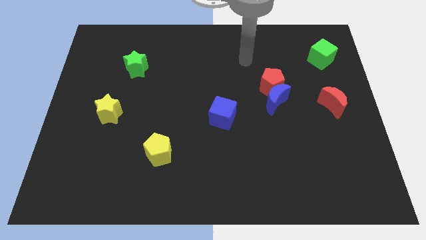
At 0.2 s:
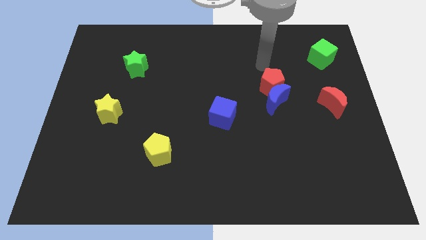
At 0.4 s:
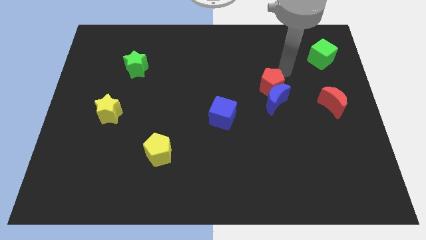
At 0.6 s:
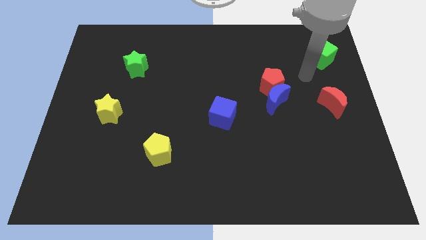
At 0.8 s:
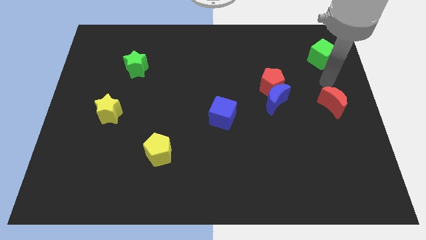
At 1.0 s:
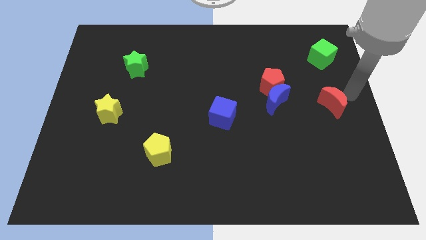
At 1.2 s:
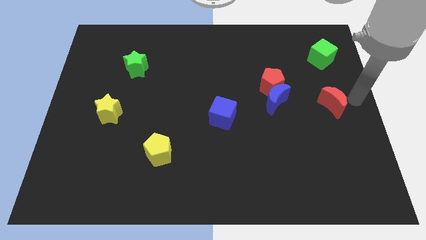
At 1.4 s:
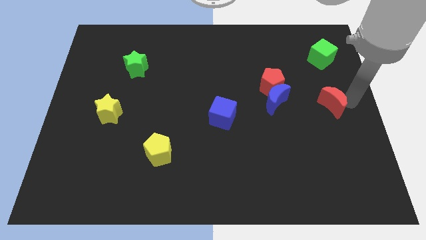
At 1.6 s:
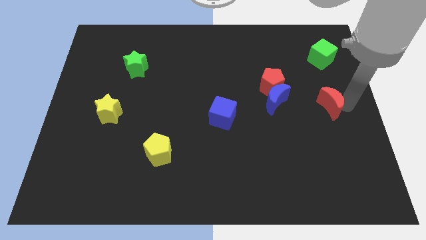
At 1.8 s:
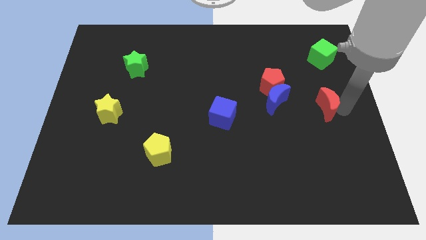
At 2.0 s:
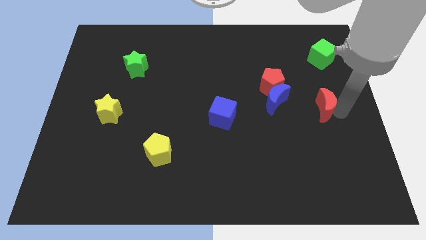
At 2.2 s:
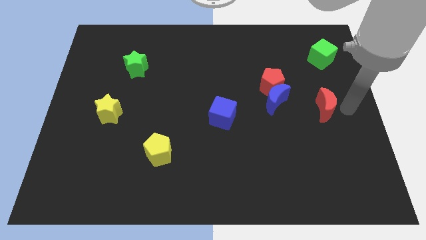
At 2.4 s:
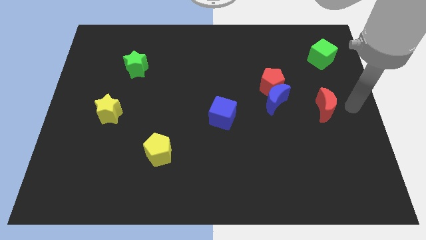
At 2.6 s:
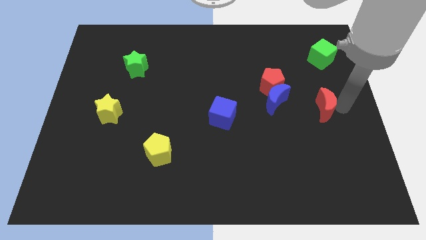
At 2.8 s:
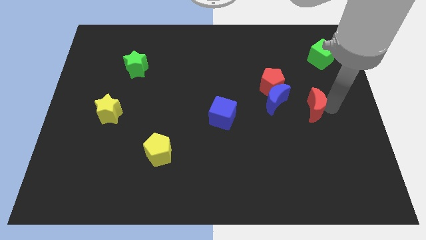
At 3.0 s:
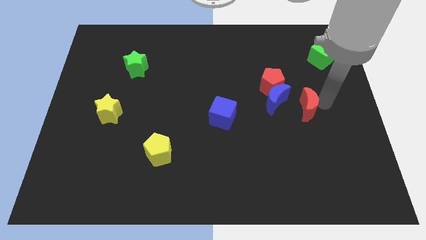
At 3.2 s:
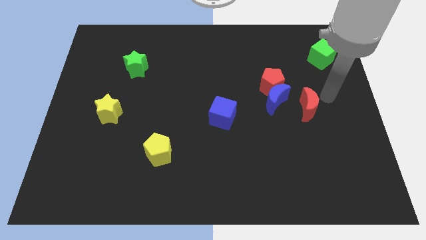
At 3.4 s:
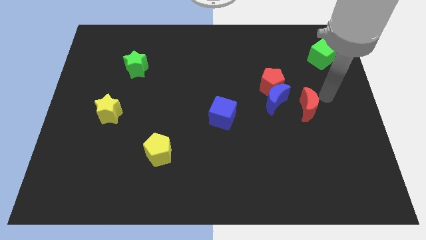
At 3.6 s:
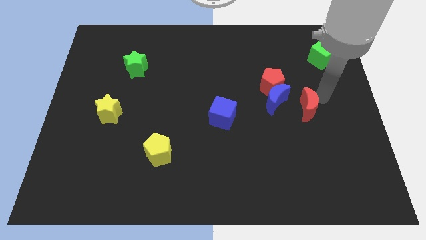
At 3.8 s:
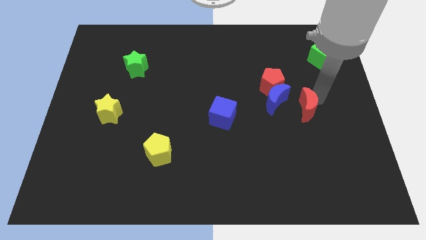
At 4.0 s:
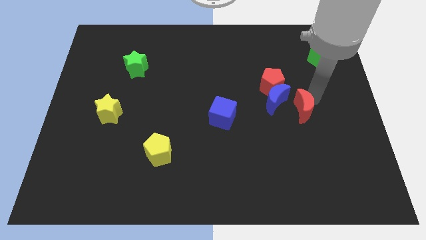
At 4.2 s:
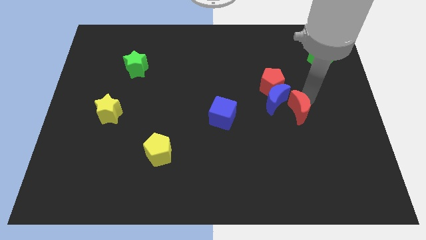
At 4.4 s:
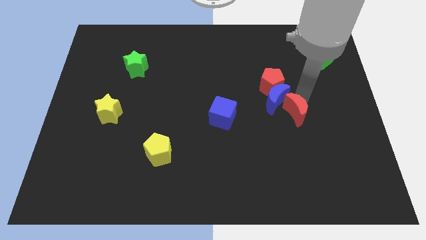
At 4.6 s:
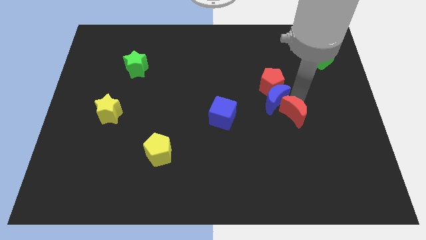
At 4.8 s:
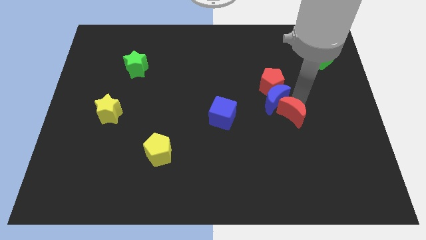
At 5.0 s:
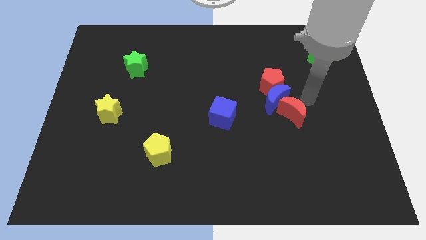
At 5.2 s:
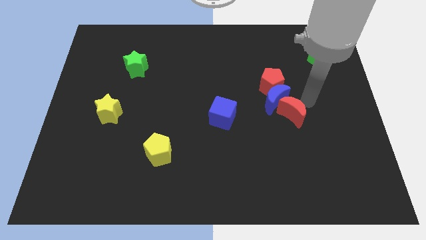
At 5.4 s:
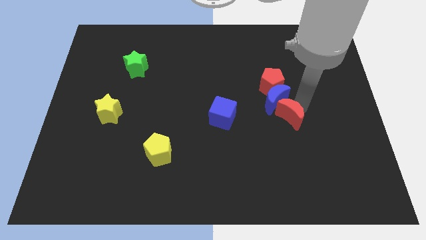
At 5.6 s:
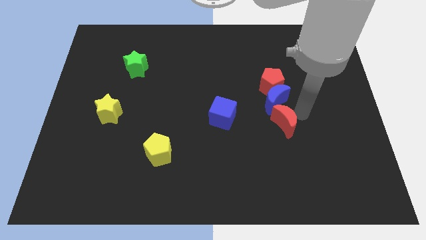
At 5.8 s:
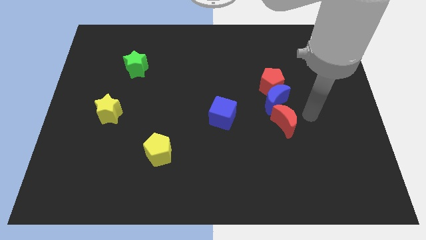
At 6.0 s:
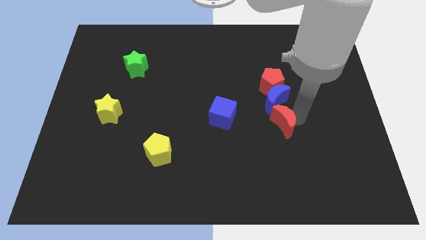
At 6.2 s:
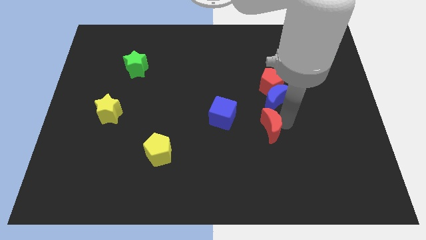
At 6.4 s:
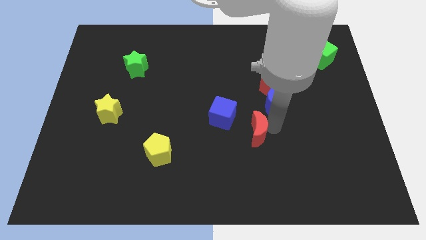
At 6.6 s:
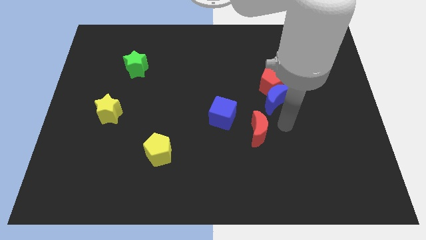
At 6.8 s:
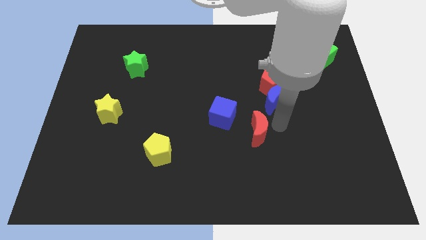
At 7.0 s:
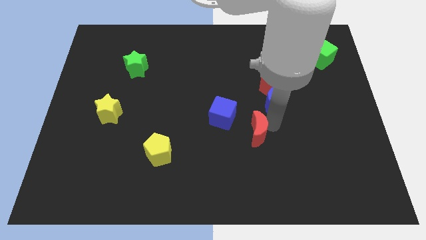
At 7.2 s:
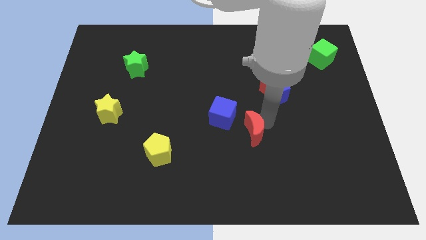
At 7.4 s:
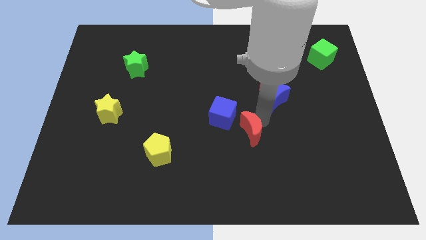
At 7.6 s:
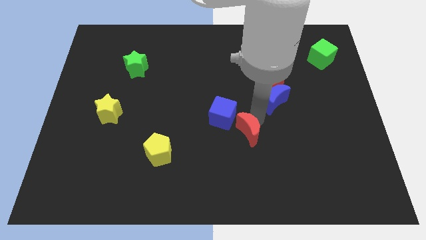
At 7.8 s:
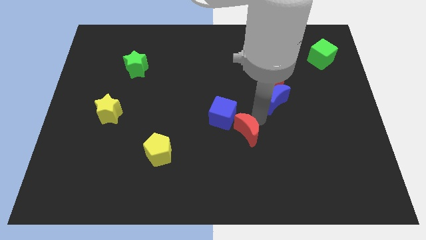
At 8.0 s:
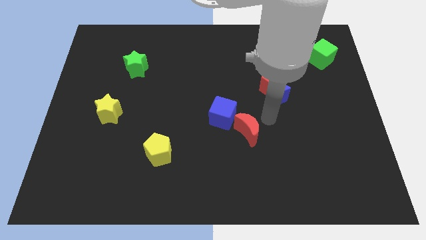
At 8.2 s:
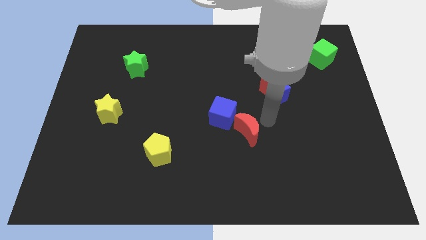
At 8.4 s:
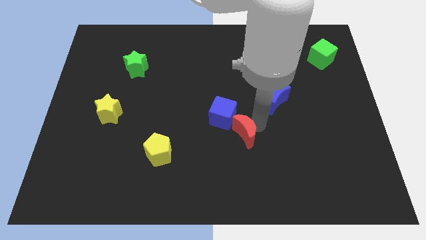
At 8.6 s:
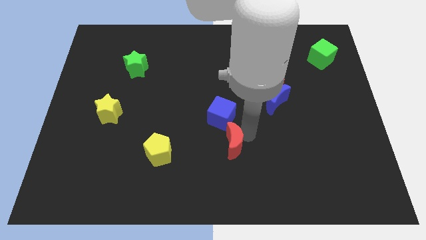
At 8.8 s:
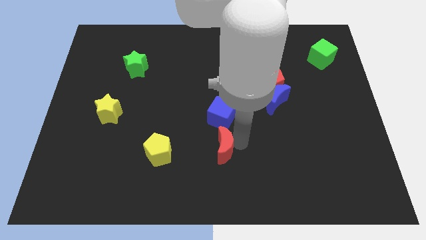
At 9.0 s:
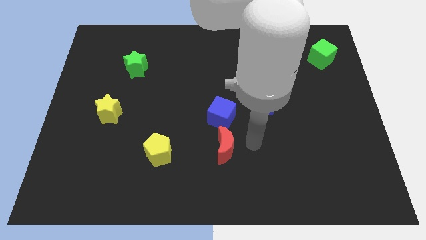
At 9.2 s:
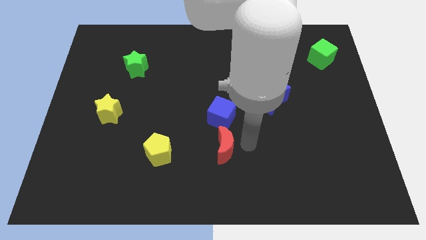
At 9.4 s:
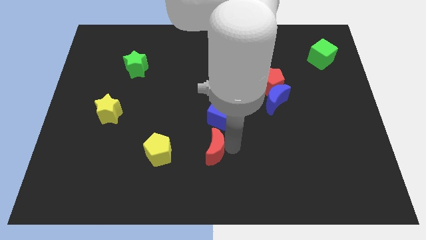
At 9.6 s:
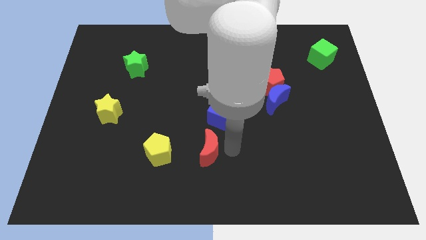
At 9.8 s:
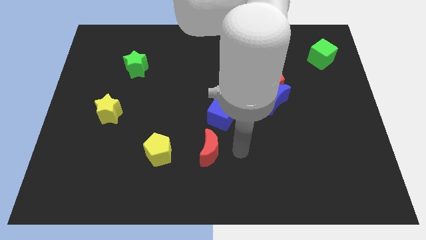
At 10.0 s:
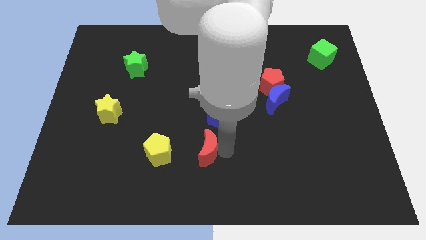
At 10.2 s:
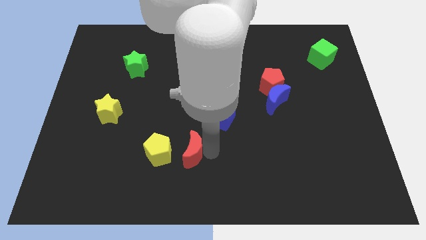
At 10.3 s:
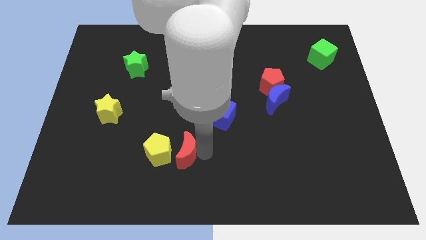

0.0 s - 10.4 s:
move the red moon to the yellow pentagon

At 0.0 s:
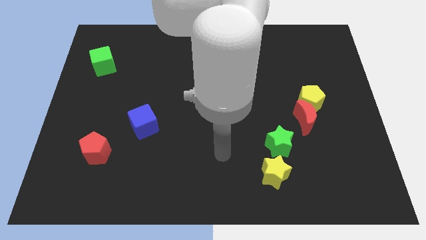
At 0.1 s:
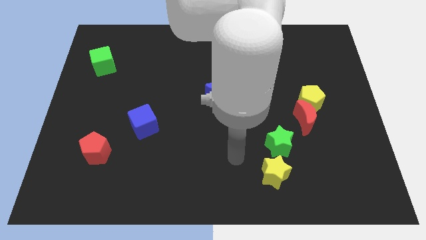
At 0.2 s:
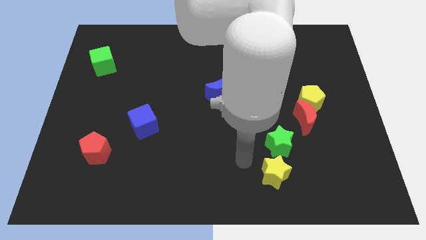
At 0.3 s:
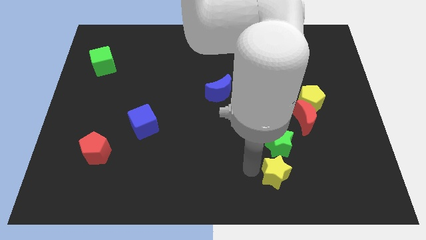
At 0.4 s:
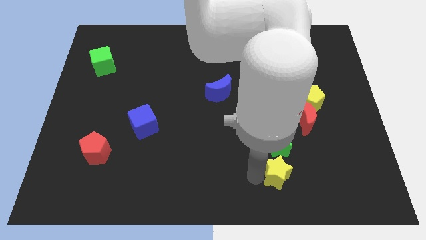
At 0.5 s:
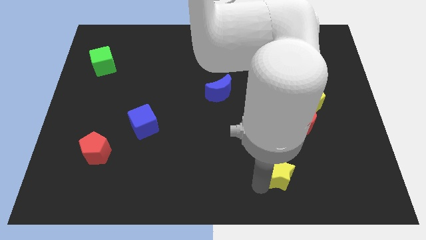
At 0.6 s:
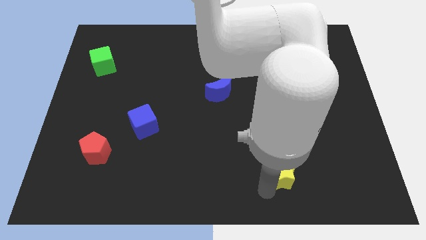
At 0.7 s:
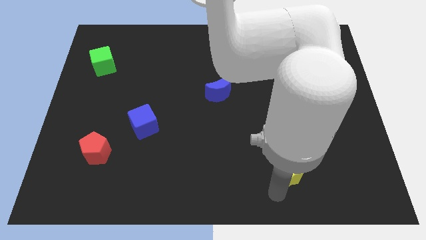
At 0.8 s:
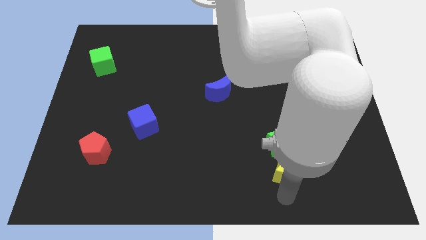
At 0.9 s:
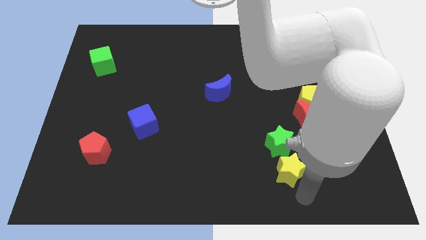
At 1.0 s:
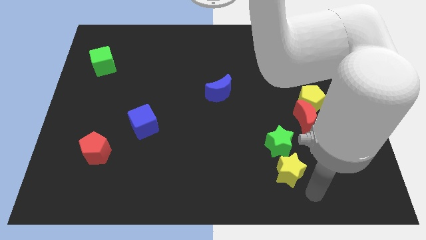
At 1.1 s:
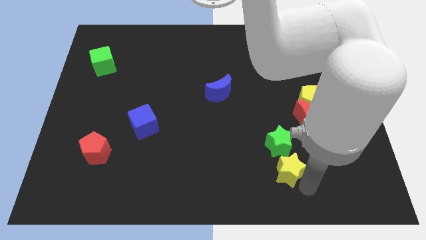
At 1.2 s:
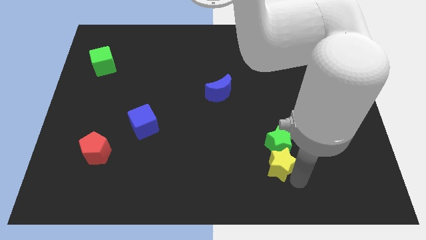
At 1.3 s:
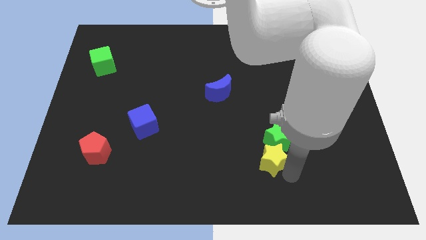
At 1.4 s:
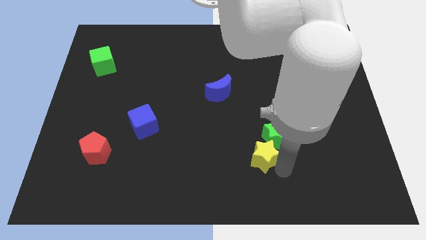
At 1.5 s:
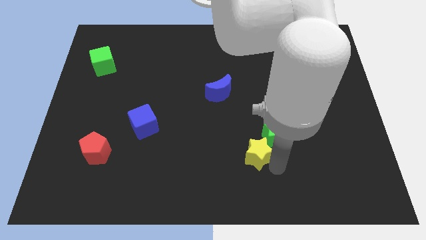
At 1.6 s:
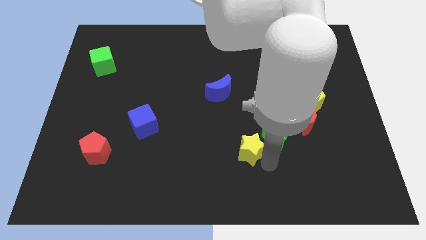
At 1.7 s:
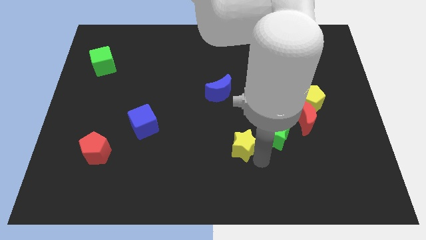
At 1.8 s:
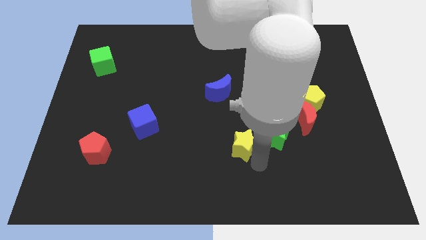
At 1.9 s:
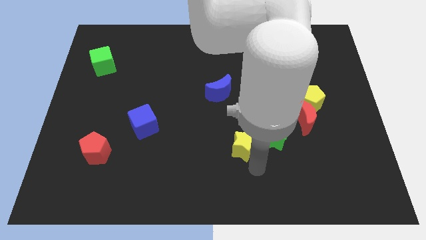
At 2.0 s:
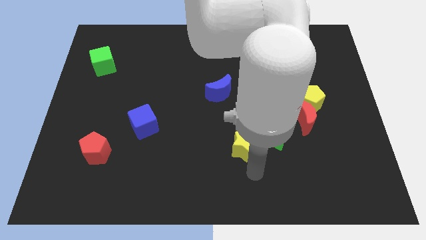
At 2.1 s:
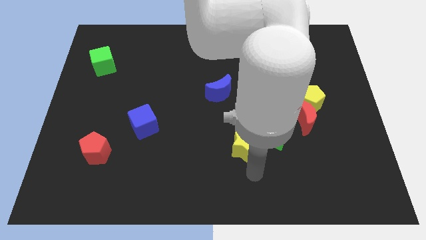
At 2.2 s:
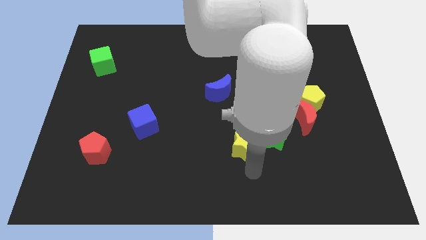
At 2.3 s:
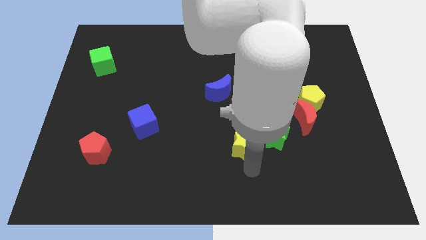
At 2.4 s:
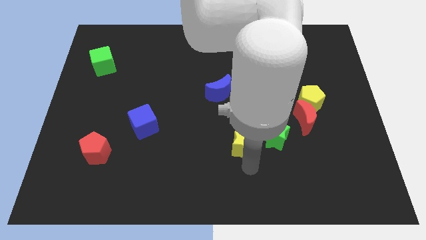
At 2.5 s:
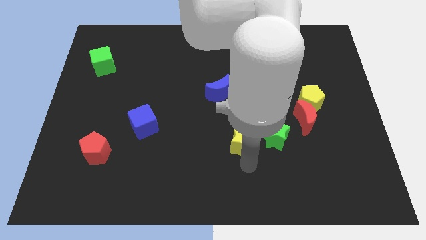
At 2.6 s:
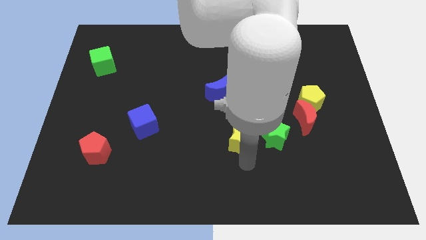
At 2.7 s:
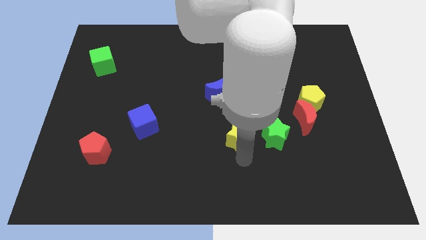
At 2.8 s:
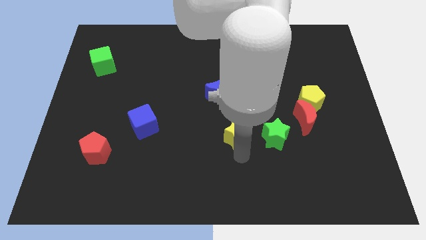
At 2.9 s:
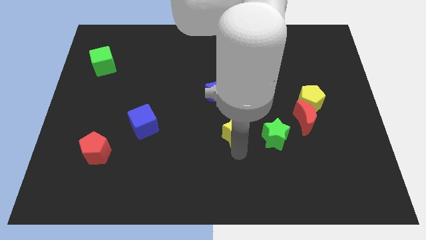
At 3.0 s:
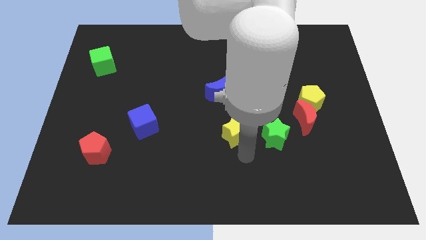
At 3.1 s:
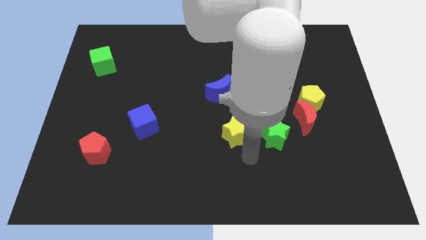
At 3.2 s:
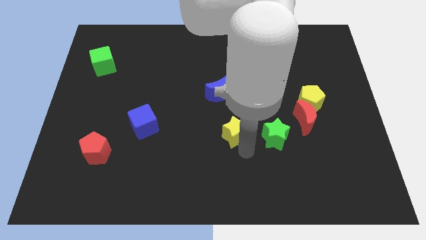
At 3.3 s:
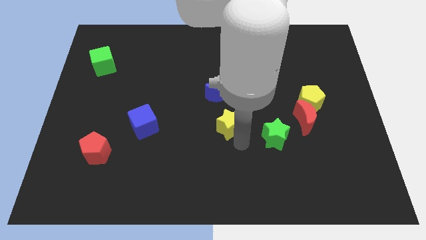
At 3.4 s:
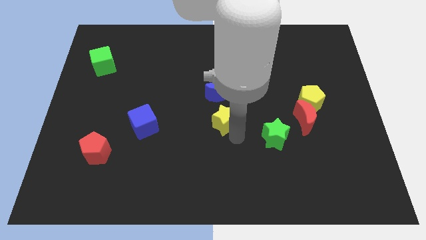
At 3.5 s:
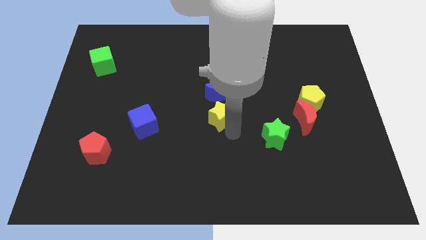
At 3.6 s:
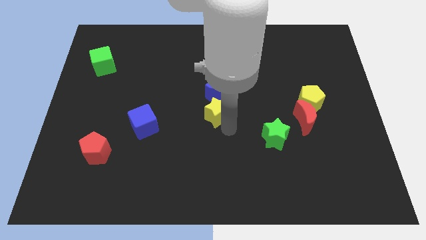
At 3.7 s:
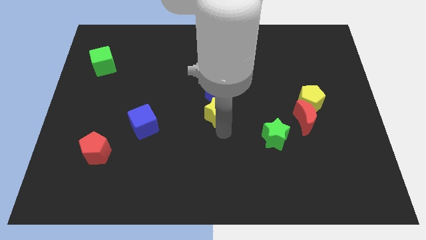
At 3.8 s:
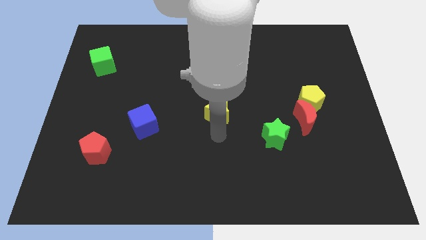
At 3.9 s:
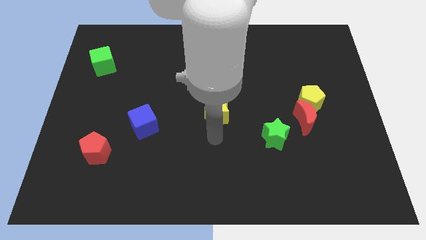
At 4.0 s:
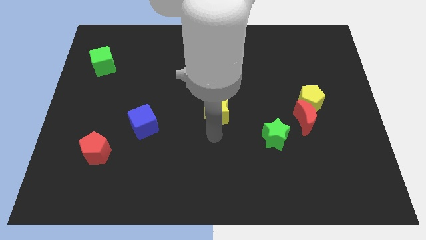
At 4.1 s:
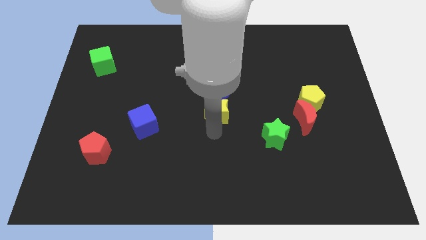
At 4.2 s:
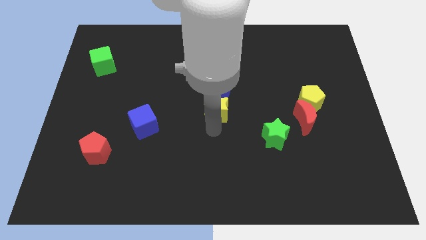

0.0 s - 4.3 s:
slide the yellow star to the blue moon
